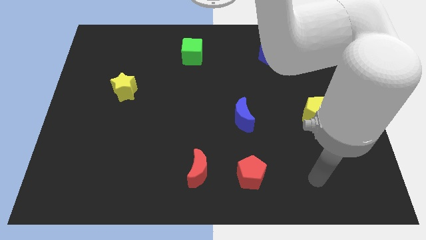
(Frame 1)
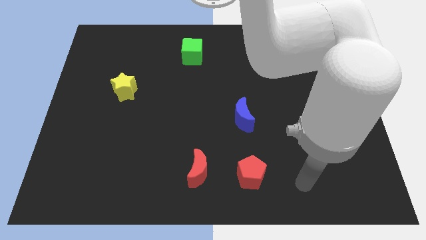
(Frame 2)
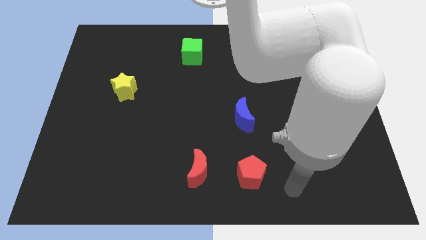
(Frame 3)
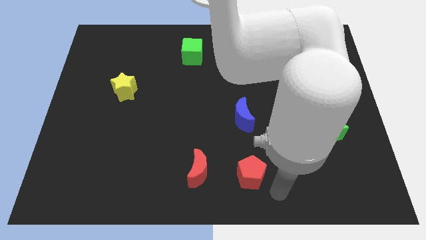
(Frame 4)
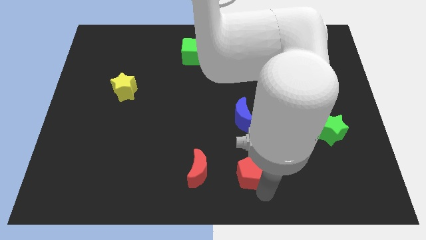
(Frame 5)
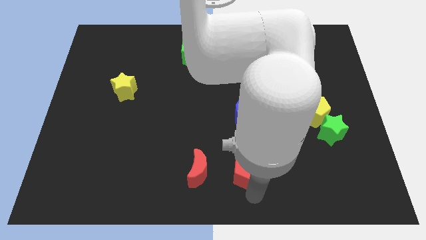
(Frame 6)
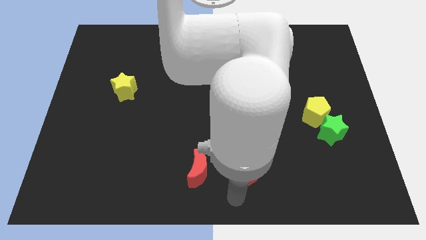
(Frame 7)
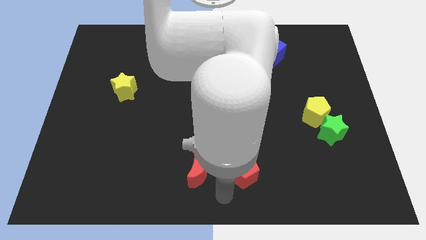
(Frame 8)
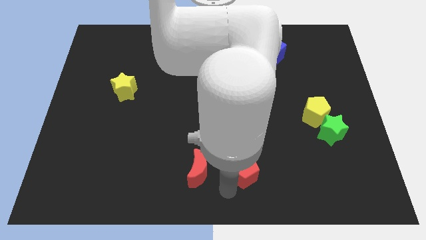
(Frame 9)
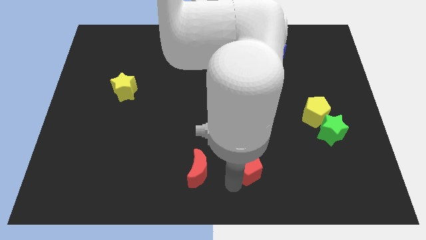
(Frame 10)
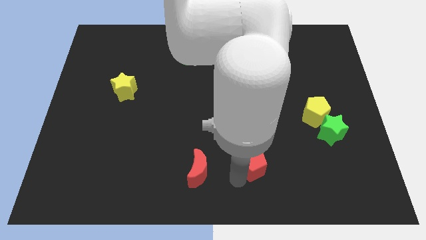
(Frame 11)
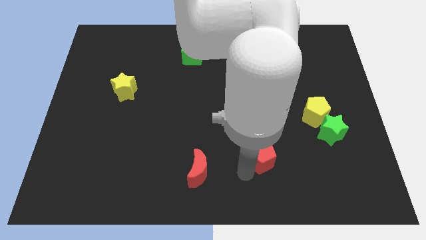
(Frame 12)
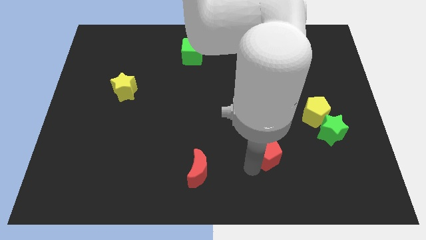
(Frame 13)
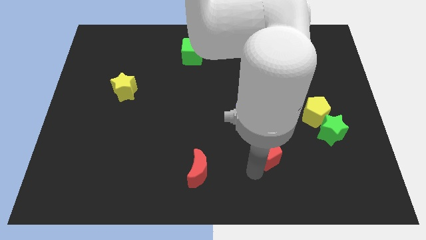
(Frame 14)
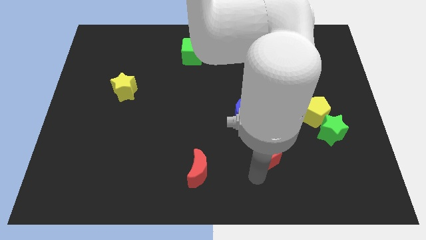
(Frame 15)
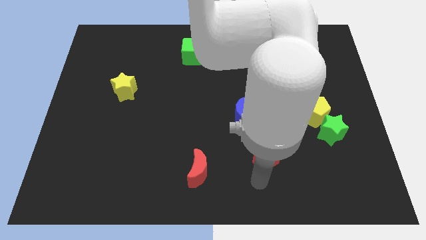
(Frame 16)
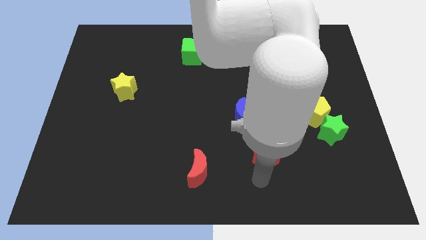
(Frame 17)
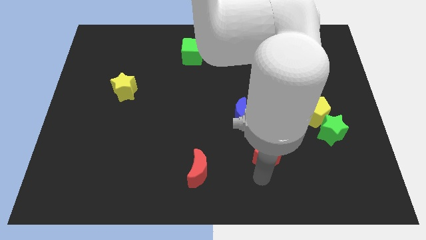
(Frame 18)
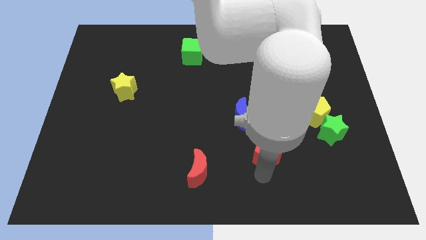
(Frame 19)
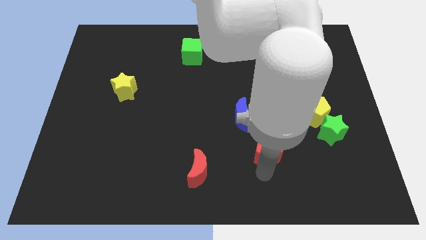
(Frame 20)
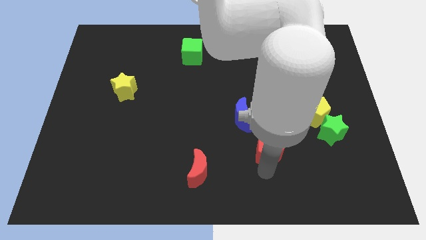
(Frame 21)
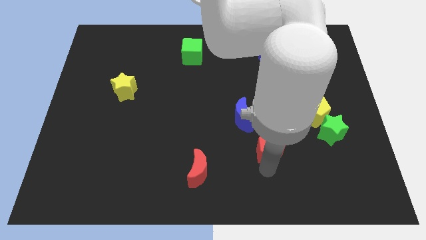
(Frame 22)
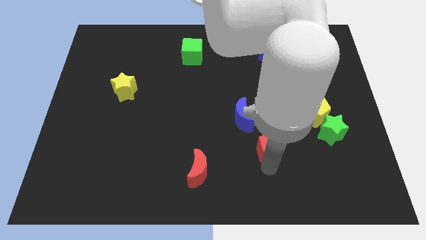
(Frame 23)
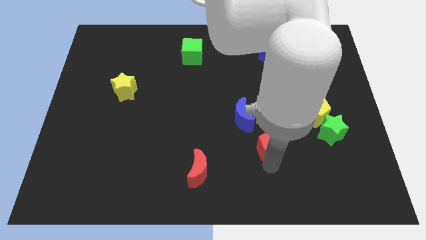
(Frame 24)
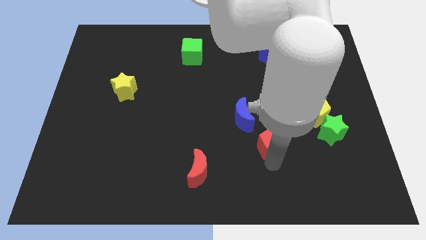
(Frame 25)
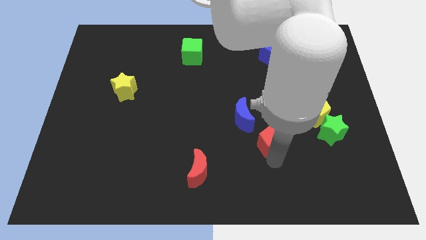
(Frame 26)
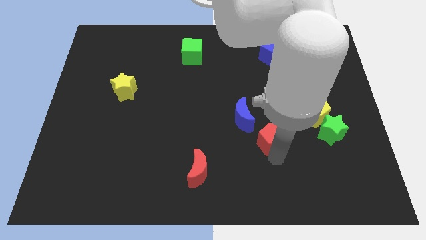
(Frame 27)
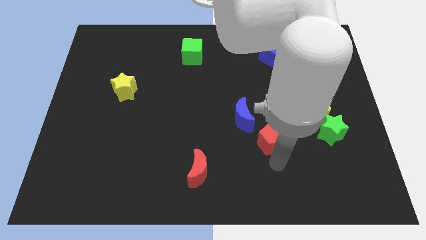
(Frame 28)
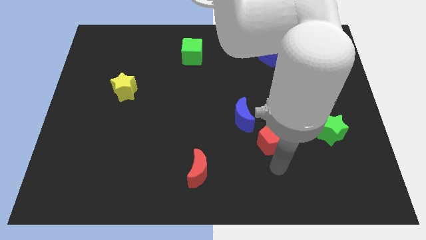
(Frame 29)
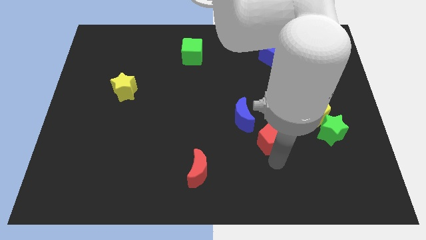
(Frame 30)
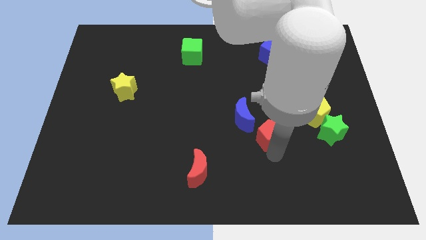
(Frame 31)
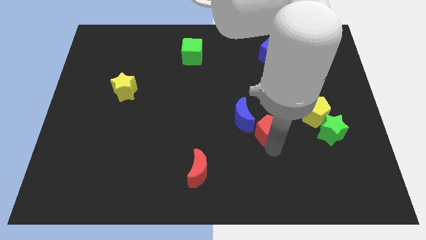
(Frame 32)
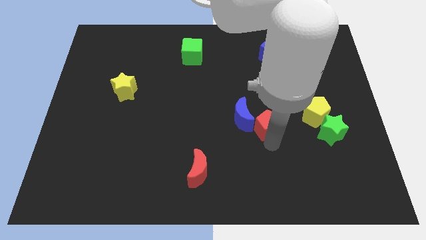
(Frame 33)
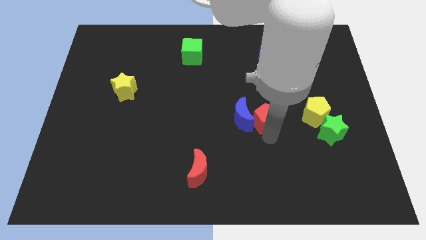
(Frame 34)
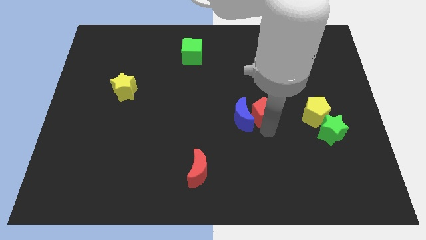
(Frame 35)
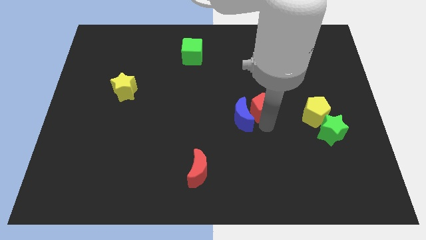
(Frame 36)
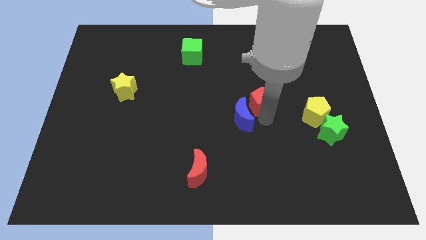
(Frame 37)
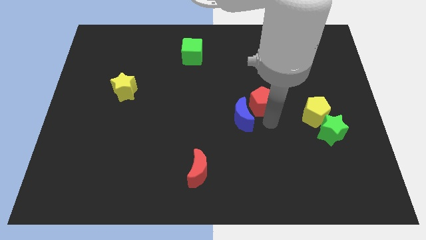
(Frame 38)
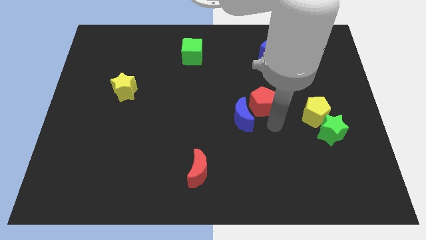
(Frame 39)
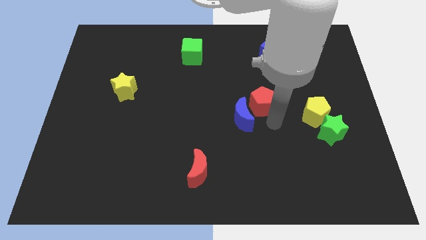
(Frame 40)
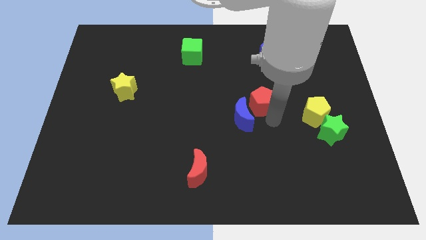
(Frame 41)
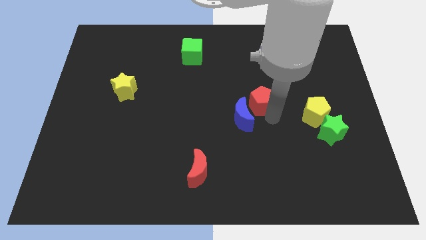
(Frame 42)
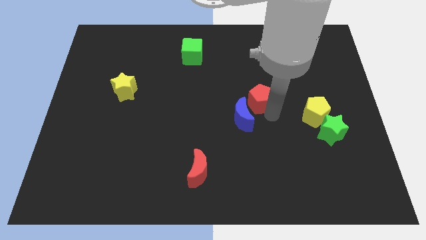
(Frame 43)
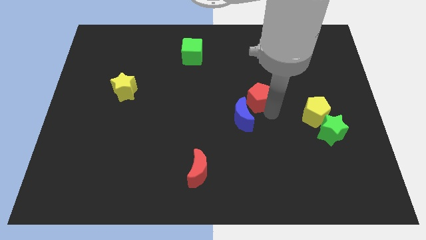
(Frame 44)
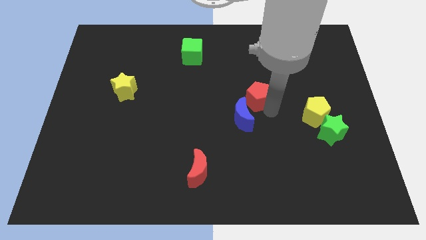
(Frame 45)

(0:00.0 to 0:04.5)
push the red pentagon upwards

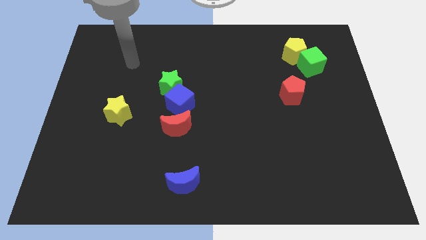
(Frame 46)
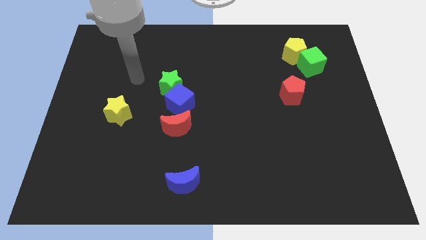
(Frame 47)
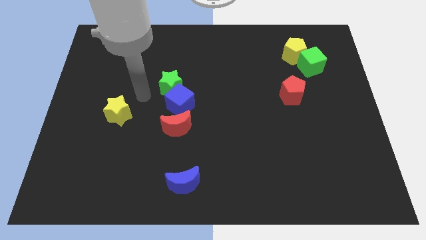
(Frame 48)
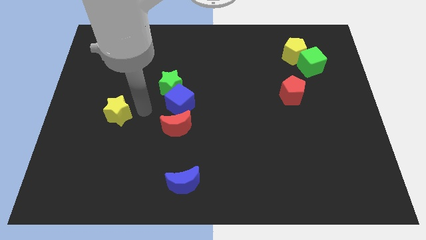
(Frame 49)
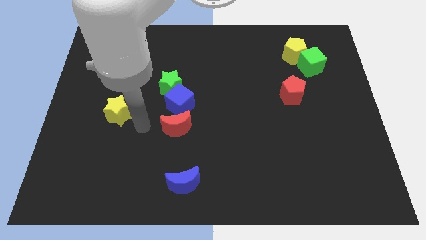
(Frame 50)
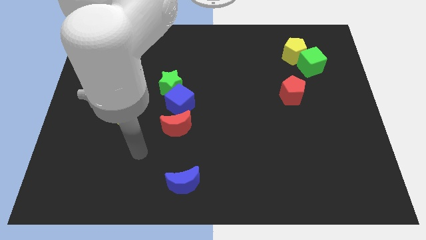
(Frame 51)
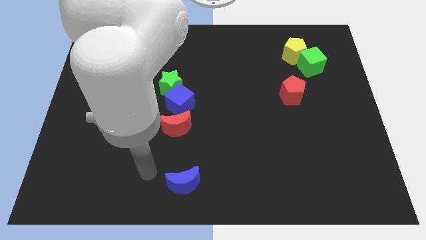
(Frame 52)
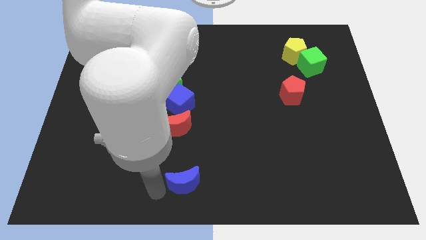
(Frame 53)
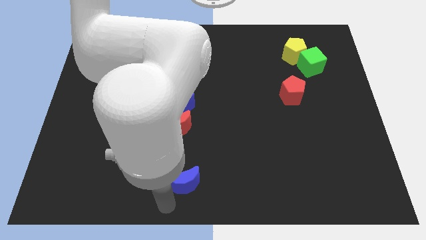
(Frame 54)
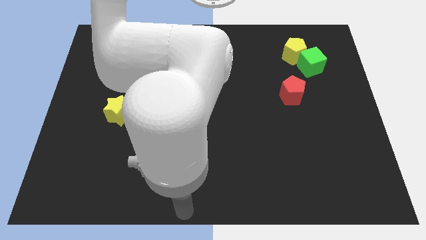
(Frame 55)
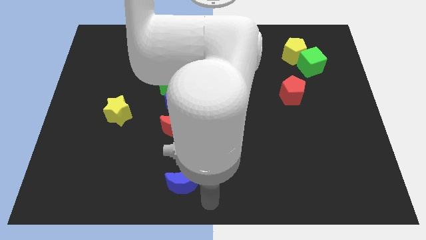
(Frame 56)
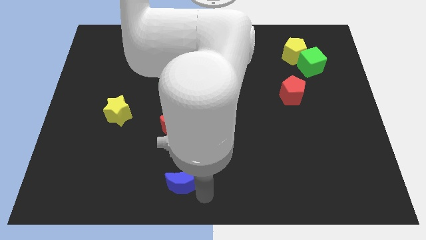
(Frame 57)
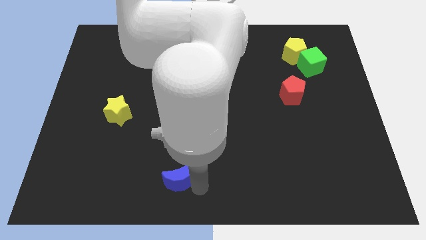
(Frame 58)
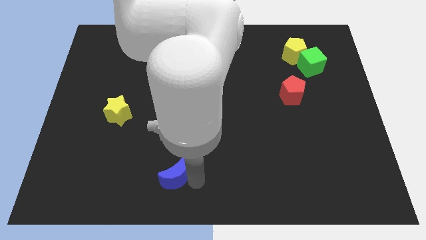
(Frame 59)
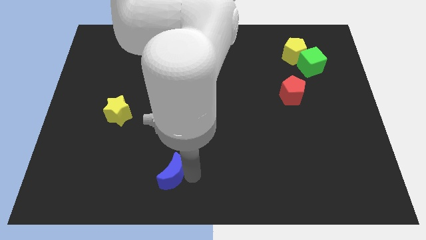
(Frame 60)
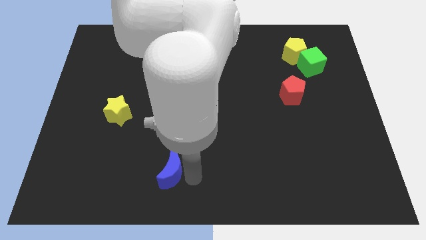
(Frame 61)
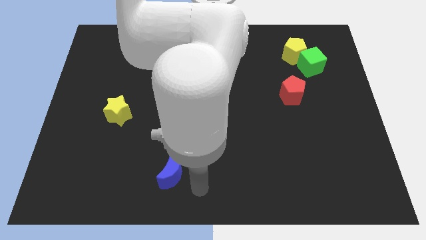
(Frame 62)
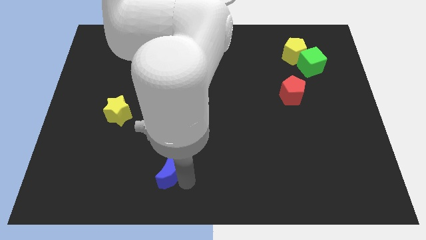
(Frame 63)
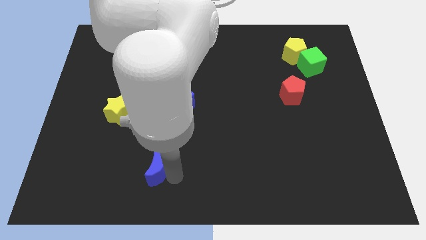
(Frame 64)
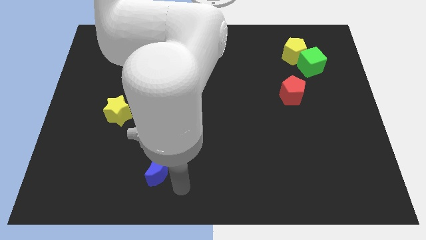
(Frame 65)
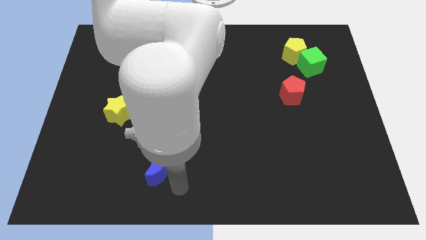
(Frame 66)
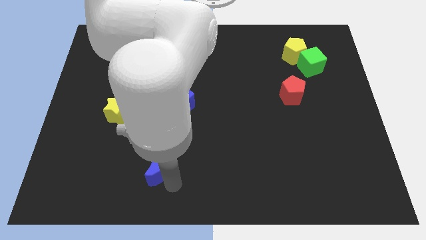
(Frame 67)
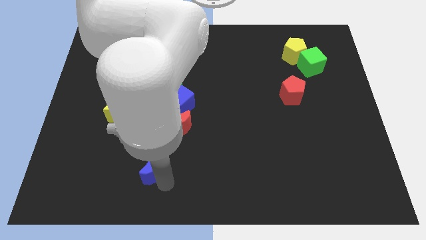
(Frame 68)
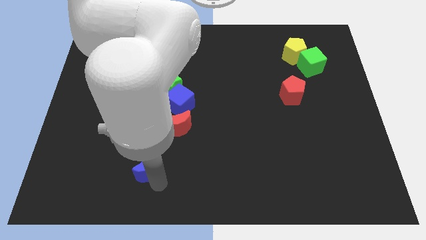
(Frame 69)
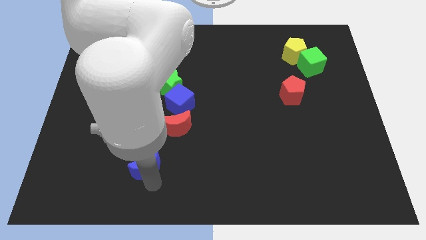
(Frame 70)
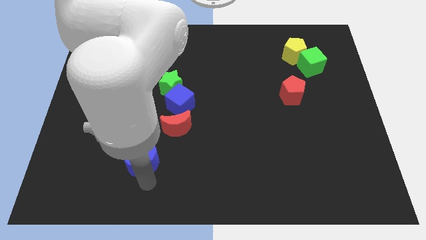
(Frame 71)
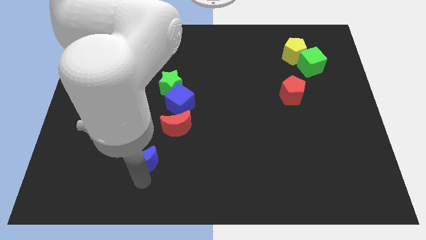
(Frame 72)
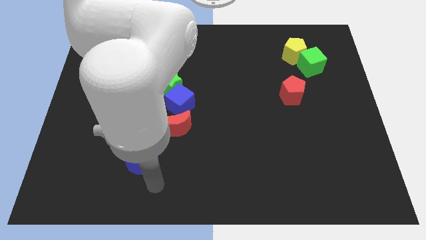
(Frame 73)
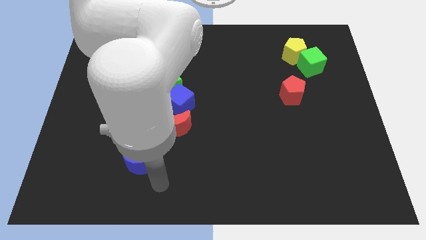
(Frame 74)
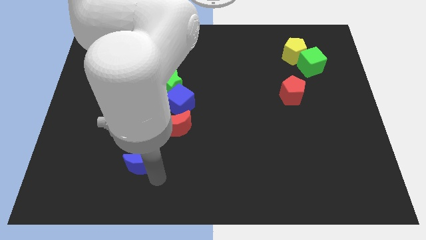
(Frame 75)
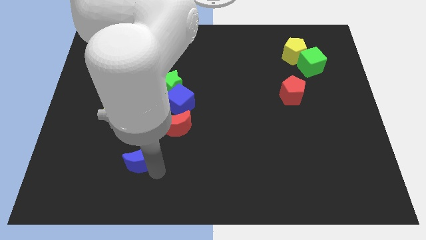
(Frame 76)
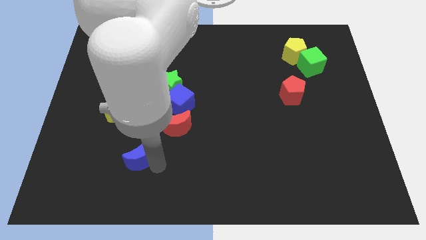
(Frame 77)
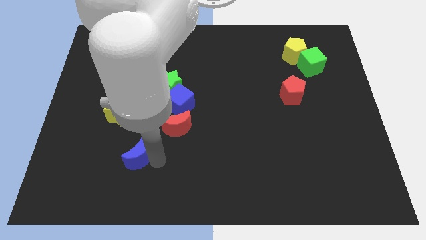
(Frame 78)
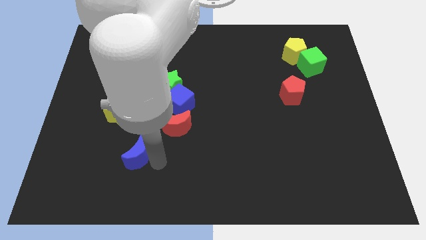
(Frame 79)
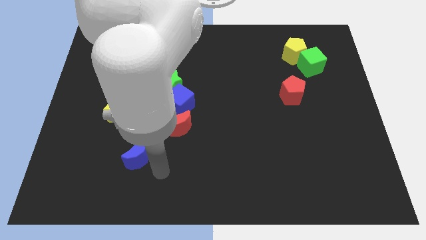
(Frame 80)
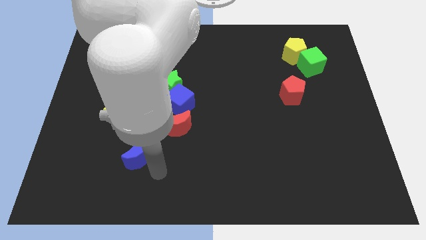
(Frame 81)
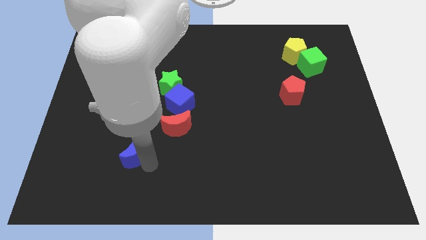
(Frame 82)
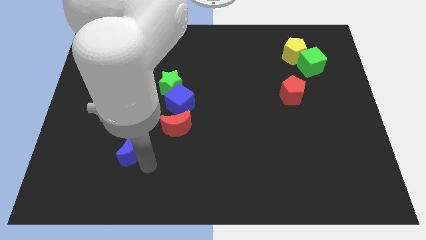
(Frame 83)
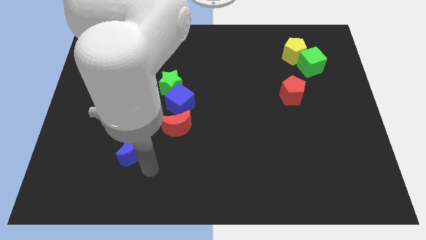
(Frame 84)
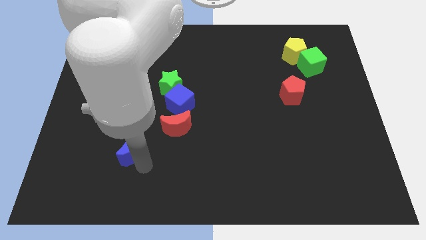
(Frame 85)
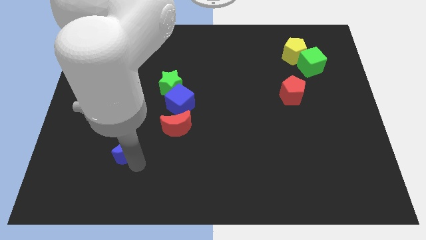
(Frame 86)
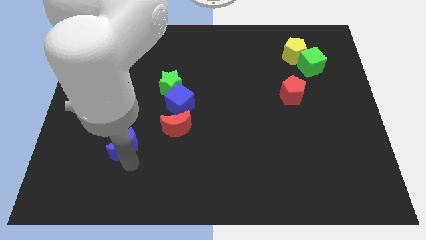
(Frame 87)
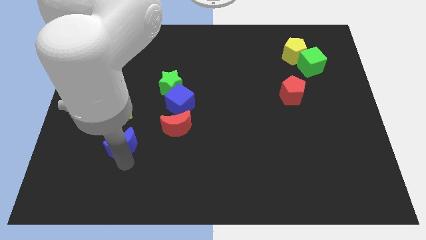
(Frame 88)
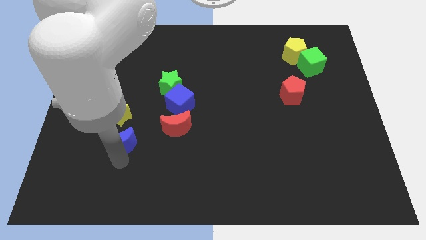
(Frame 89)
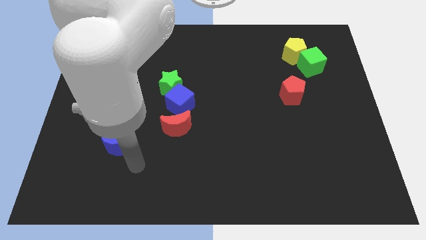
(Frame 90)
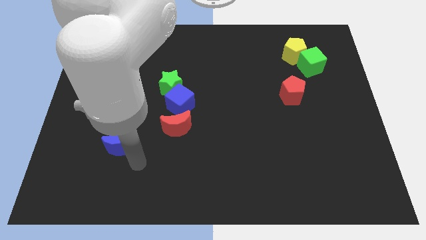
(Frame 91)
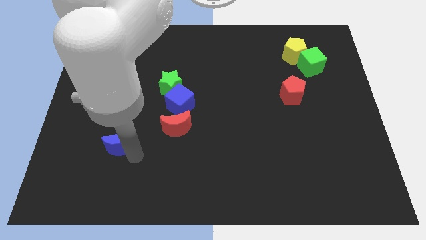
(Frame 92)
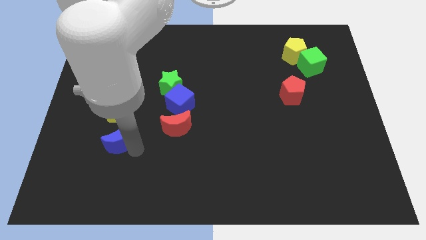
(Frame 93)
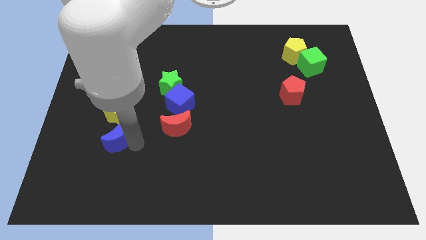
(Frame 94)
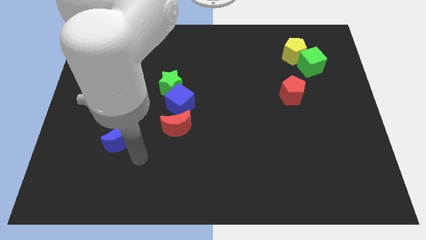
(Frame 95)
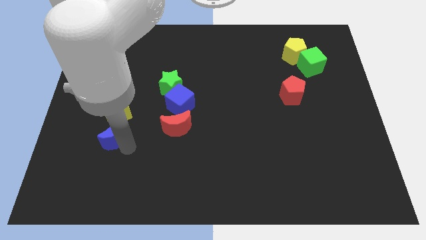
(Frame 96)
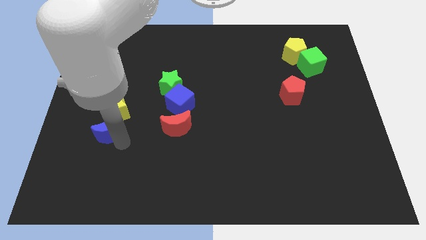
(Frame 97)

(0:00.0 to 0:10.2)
move the blue moon upwards and left
